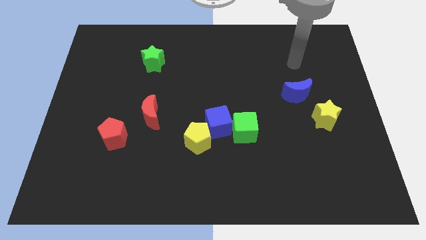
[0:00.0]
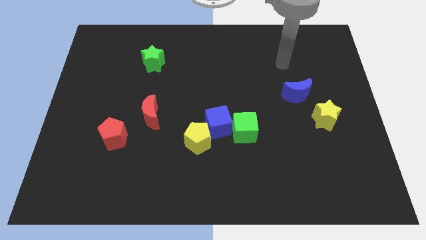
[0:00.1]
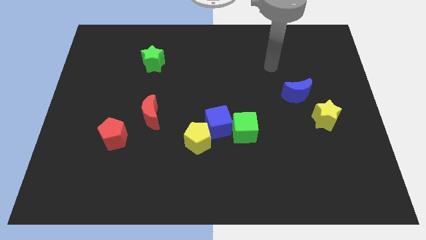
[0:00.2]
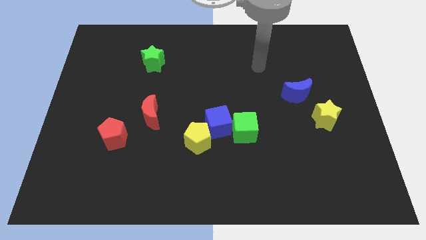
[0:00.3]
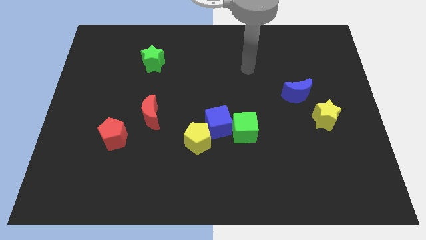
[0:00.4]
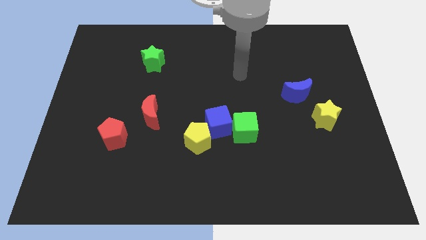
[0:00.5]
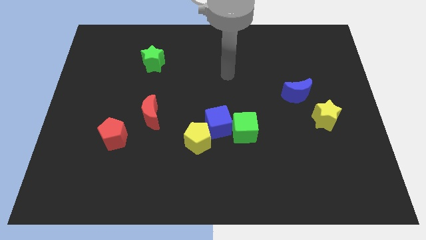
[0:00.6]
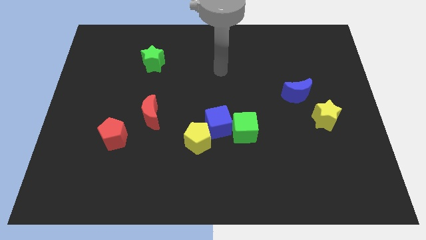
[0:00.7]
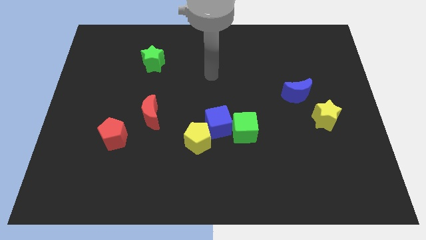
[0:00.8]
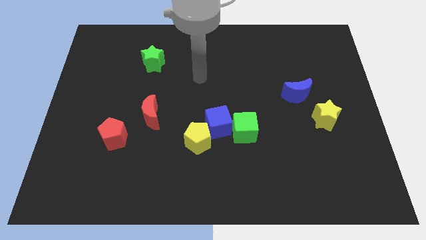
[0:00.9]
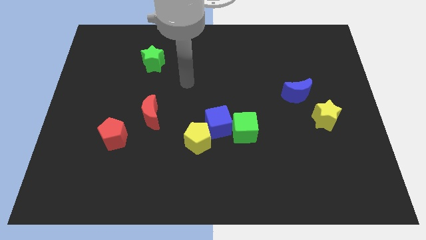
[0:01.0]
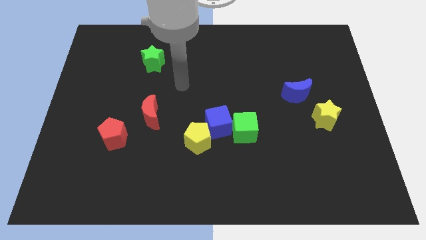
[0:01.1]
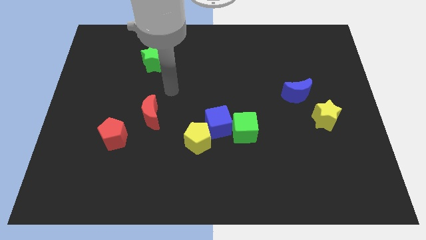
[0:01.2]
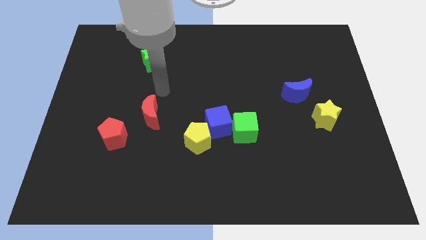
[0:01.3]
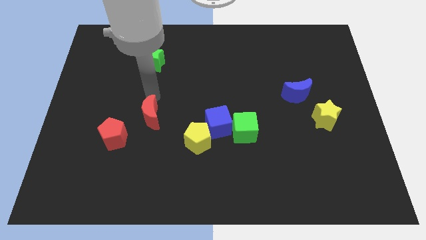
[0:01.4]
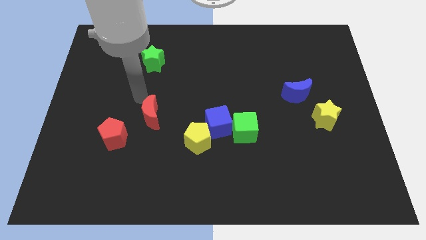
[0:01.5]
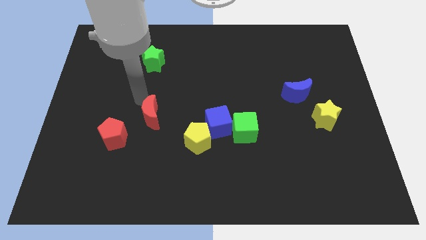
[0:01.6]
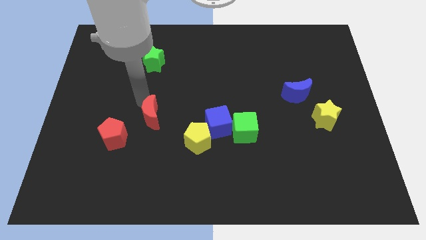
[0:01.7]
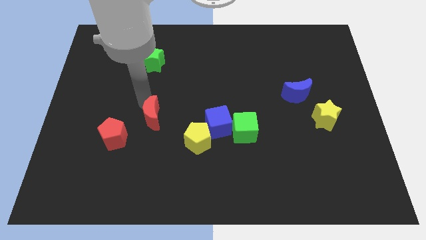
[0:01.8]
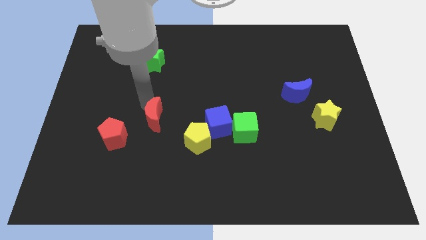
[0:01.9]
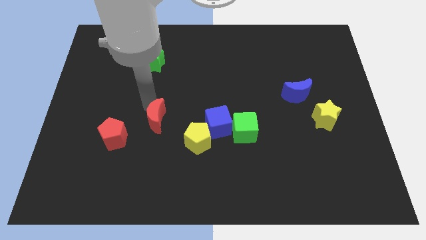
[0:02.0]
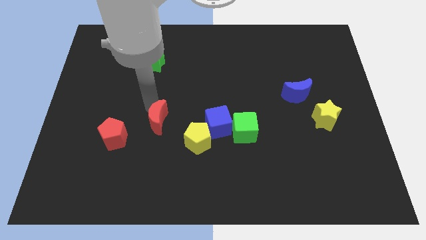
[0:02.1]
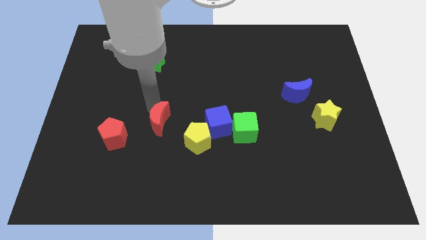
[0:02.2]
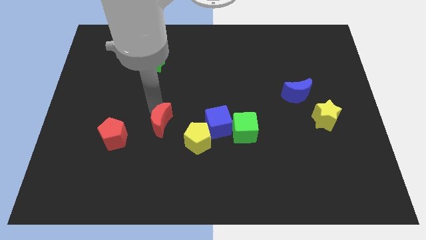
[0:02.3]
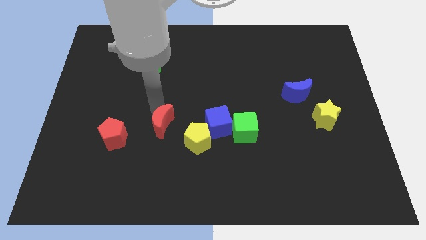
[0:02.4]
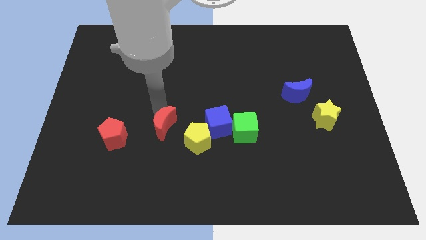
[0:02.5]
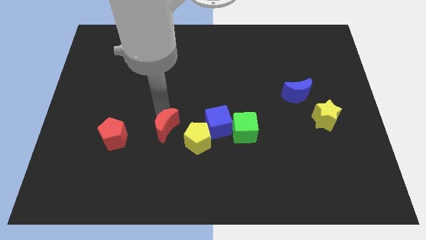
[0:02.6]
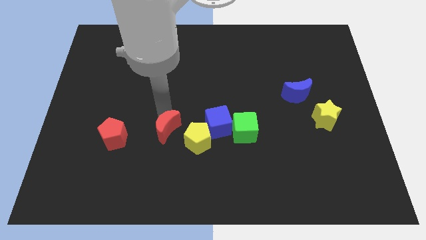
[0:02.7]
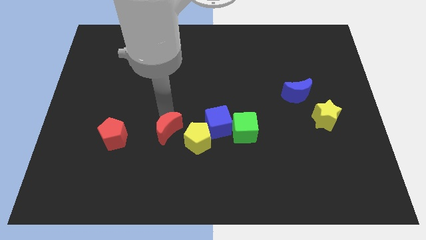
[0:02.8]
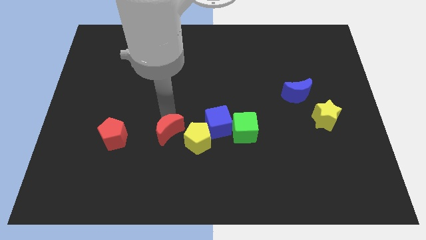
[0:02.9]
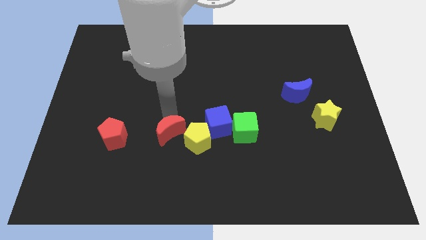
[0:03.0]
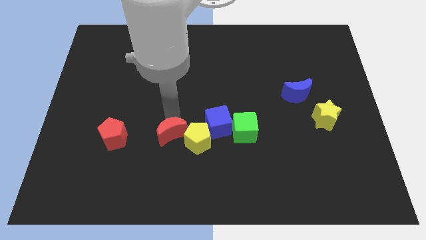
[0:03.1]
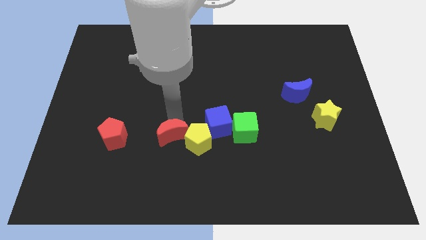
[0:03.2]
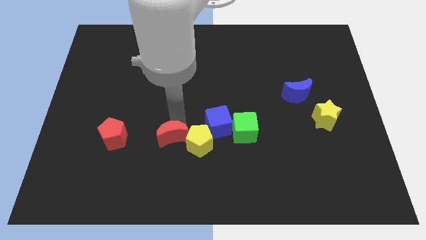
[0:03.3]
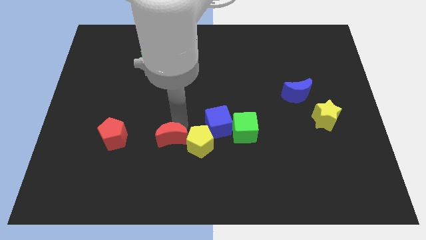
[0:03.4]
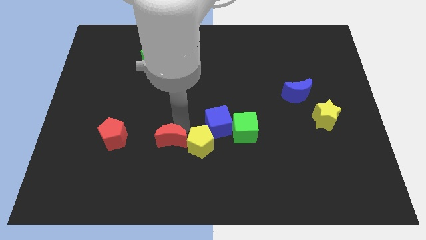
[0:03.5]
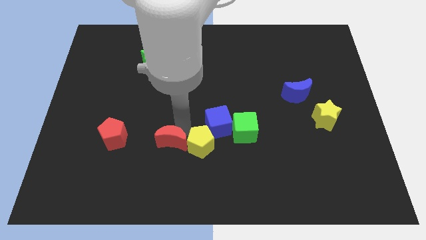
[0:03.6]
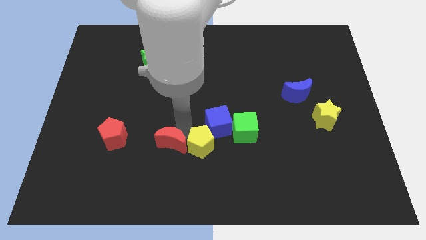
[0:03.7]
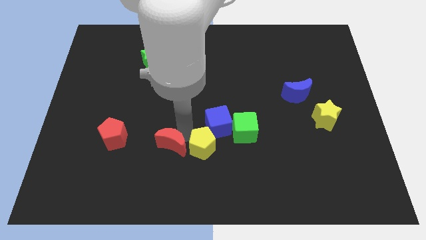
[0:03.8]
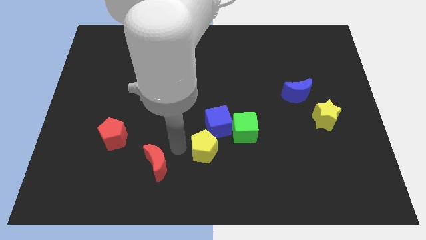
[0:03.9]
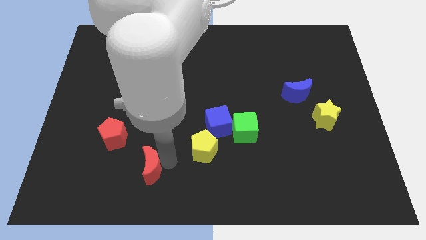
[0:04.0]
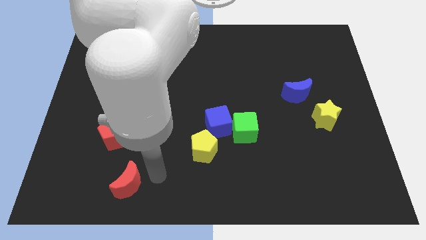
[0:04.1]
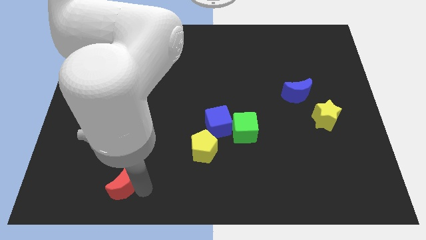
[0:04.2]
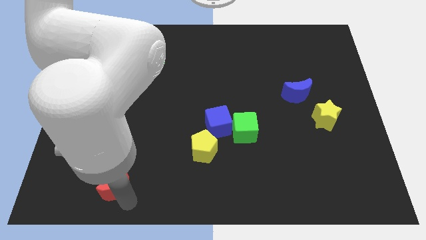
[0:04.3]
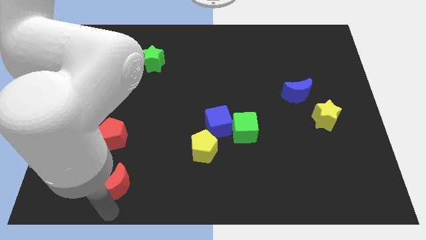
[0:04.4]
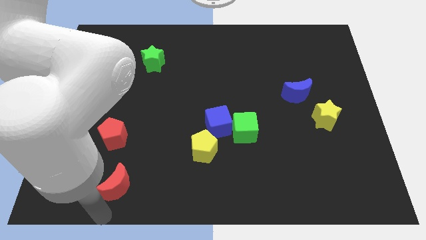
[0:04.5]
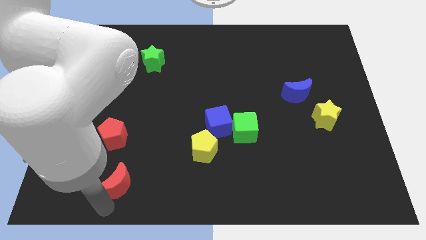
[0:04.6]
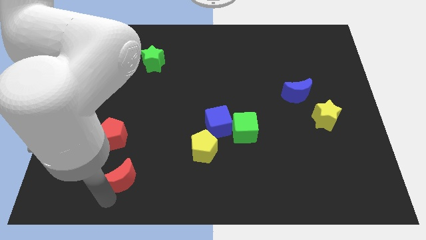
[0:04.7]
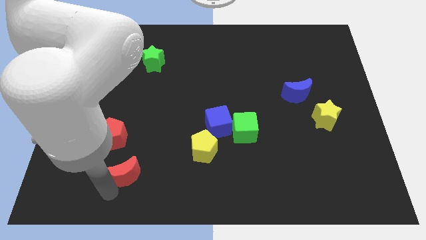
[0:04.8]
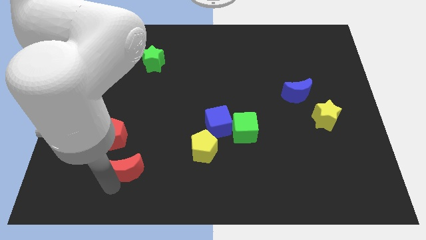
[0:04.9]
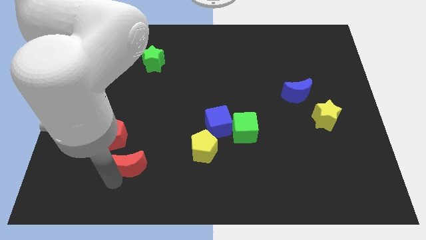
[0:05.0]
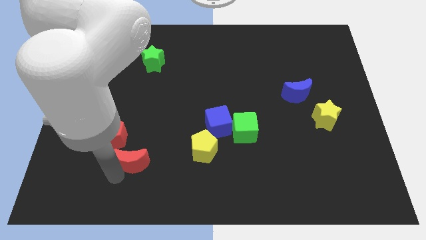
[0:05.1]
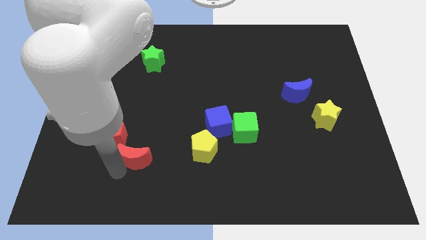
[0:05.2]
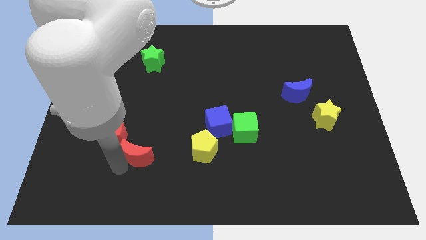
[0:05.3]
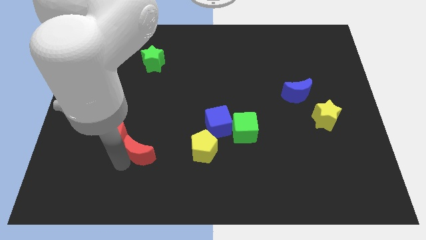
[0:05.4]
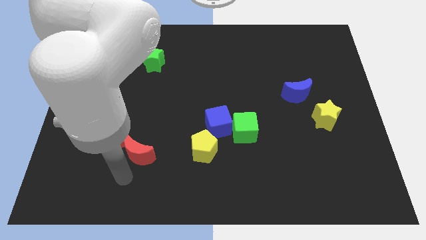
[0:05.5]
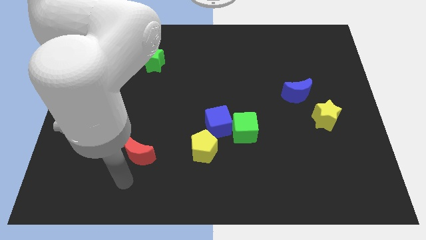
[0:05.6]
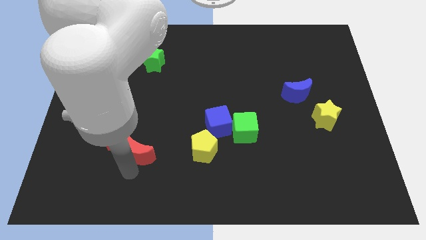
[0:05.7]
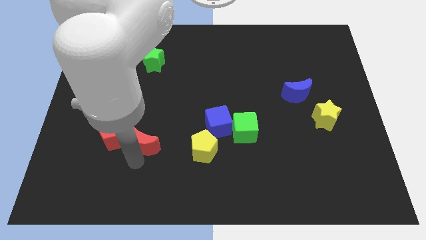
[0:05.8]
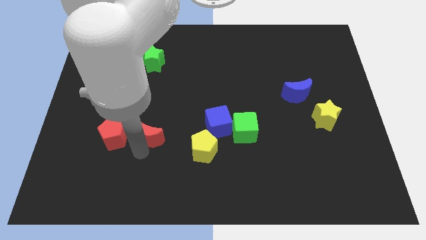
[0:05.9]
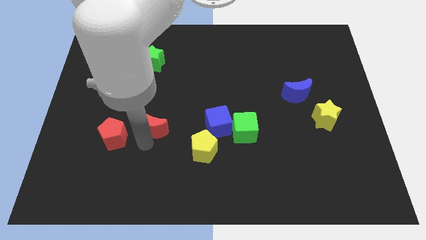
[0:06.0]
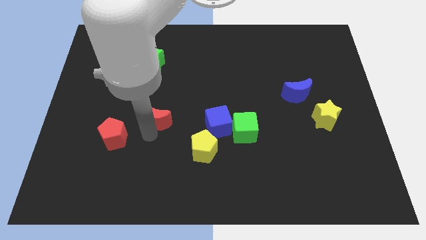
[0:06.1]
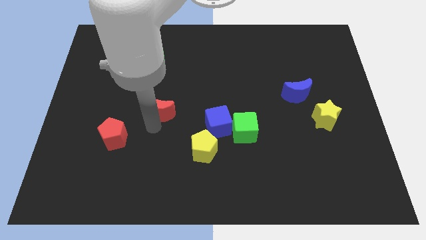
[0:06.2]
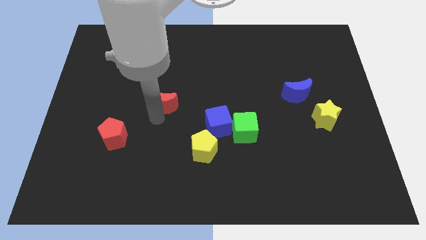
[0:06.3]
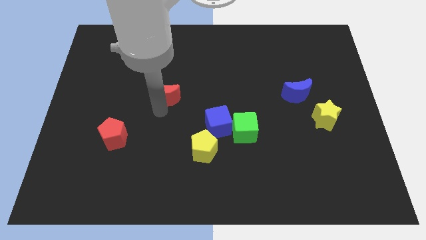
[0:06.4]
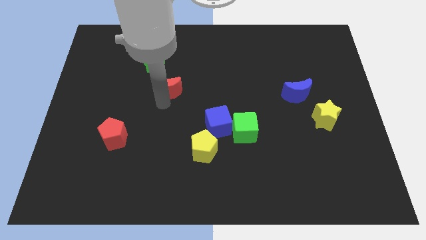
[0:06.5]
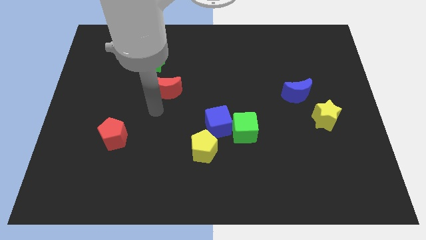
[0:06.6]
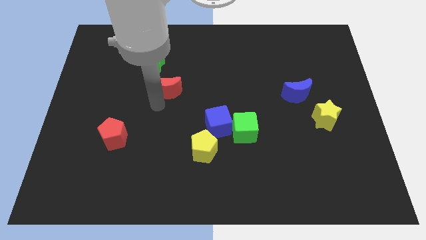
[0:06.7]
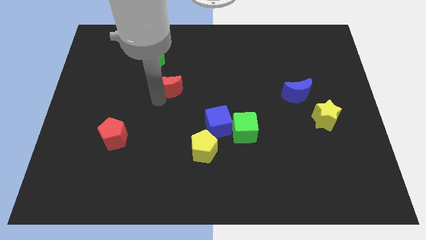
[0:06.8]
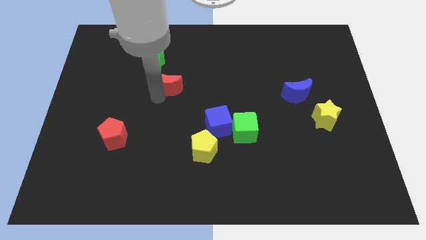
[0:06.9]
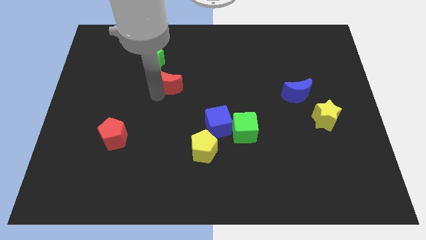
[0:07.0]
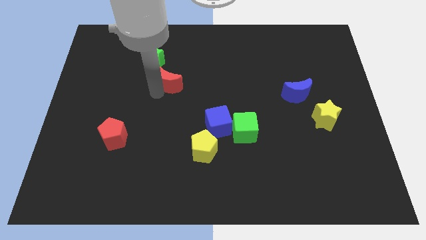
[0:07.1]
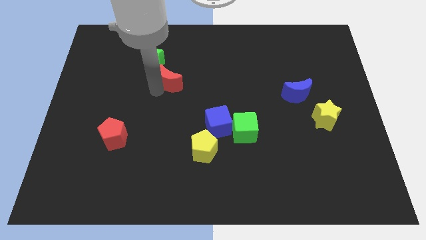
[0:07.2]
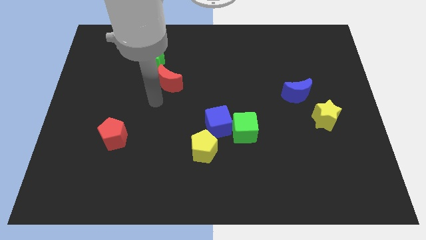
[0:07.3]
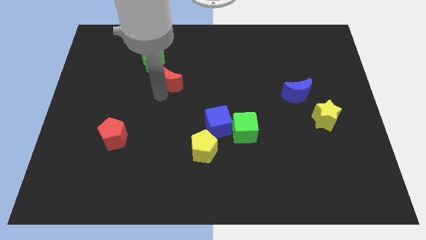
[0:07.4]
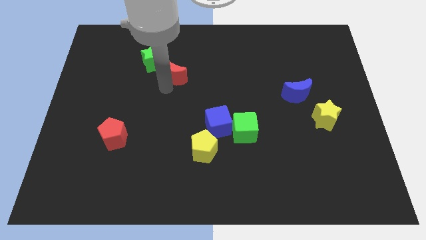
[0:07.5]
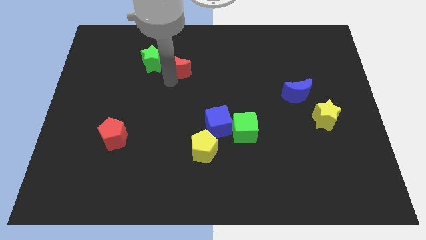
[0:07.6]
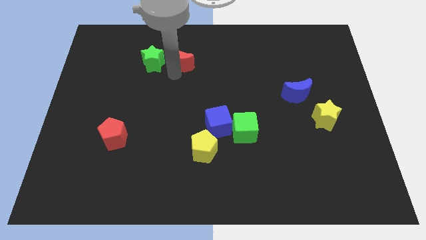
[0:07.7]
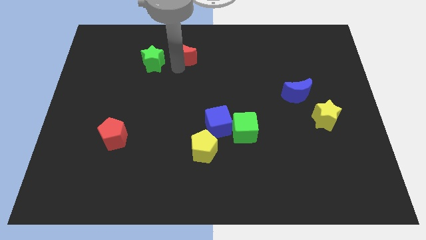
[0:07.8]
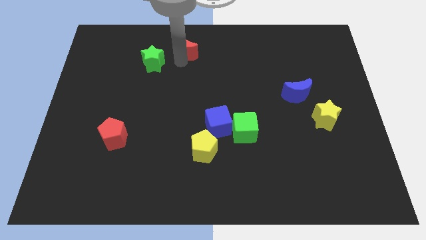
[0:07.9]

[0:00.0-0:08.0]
move the red moon to the top side

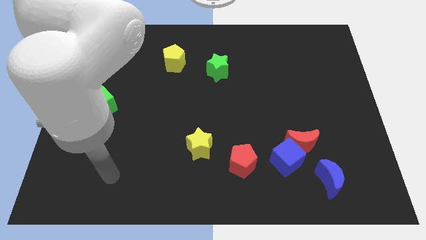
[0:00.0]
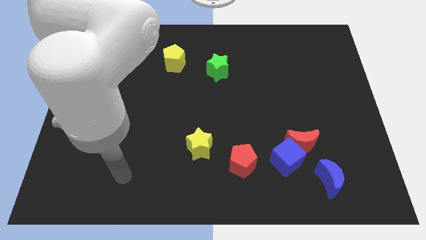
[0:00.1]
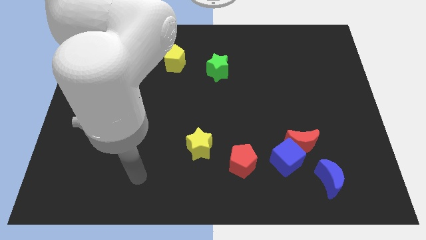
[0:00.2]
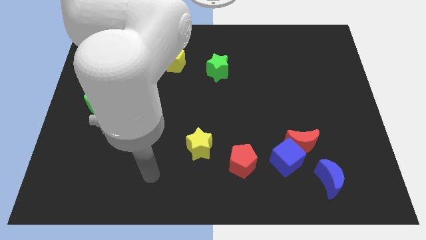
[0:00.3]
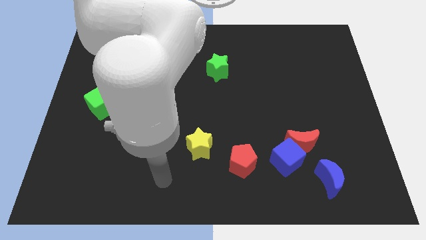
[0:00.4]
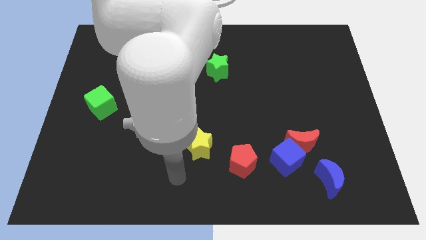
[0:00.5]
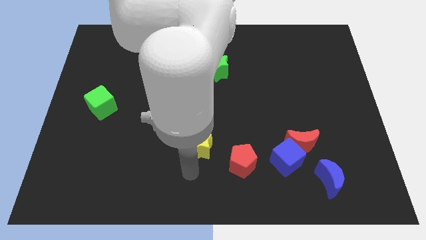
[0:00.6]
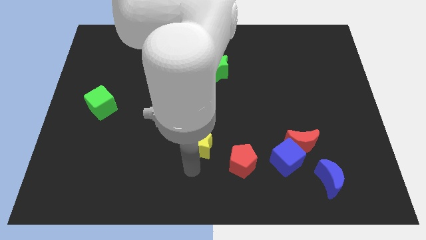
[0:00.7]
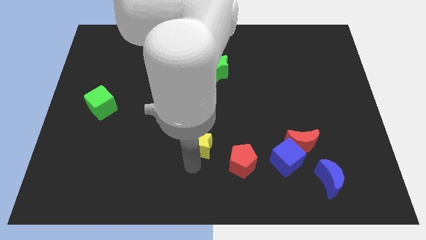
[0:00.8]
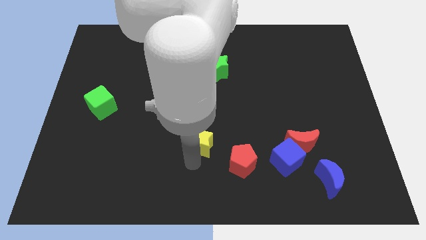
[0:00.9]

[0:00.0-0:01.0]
push the yellow star to the center
